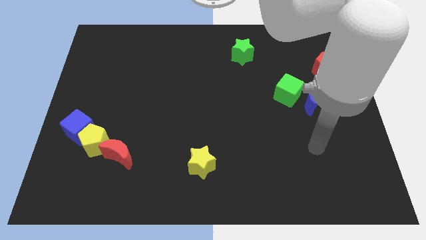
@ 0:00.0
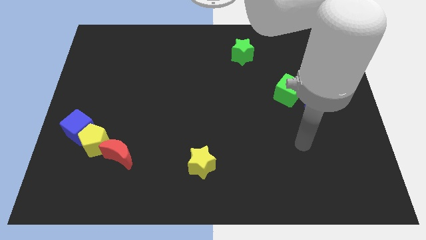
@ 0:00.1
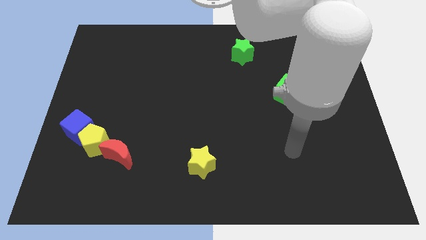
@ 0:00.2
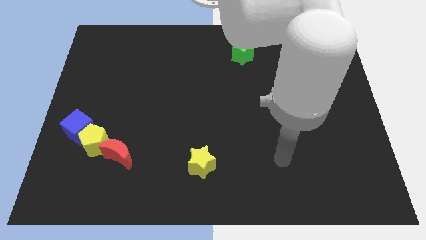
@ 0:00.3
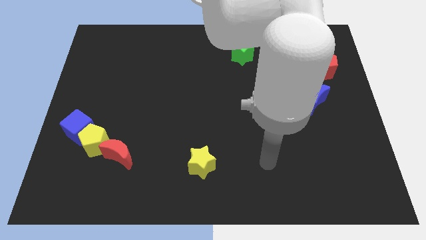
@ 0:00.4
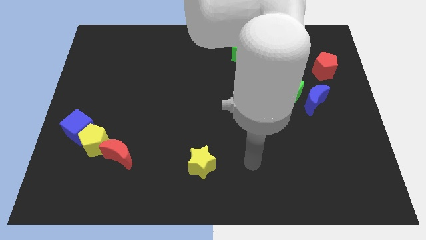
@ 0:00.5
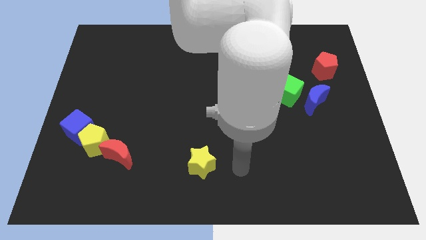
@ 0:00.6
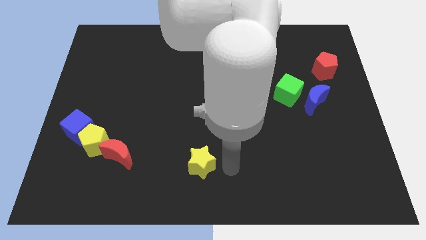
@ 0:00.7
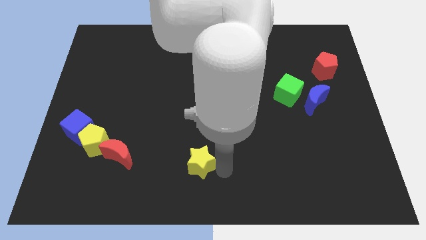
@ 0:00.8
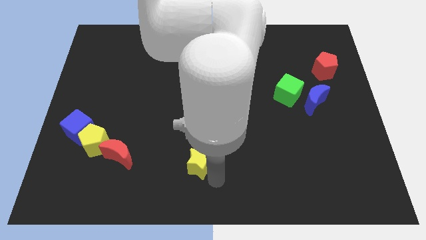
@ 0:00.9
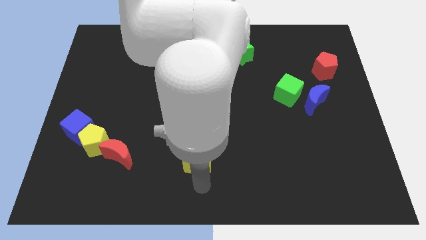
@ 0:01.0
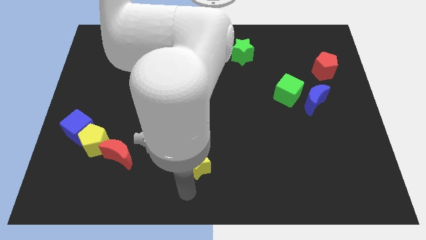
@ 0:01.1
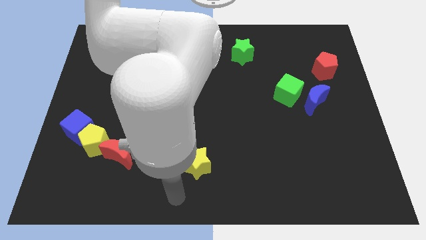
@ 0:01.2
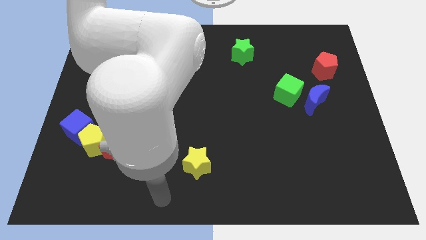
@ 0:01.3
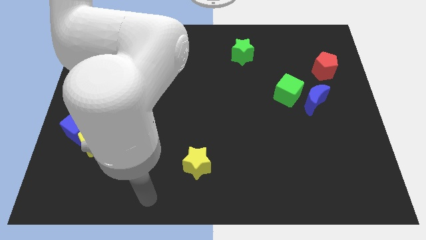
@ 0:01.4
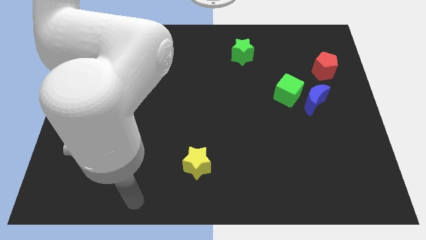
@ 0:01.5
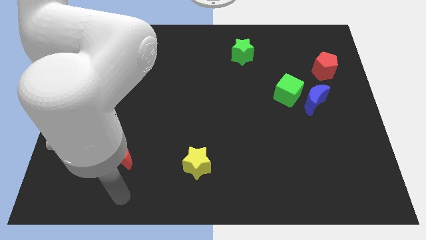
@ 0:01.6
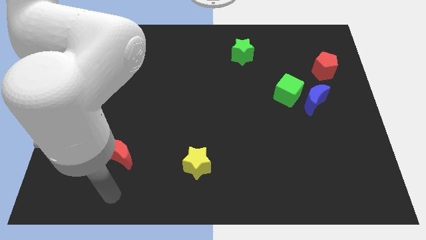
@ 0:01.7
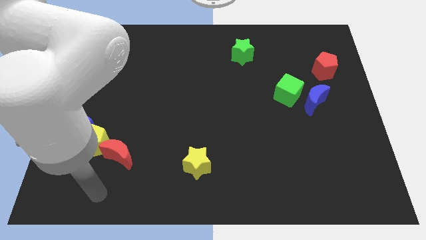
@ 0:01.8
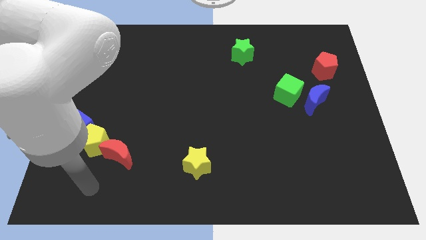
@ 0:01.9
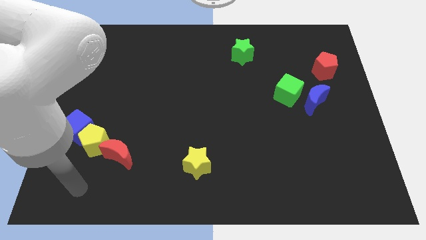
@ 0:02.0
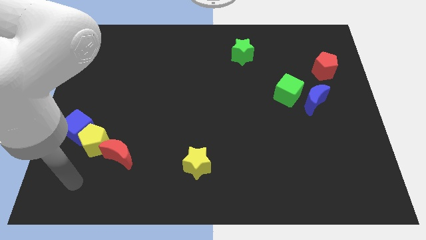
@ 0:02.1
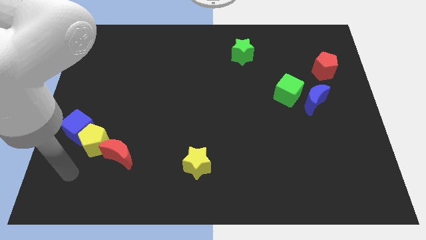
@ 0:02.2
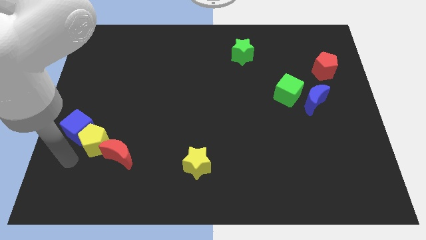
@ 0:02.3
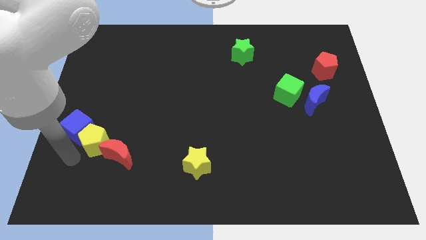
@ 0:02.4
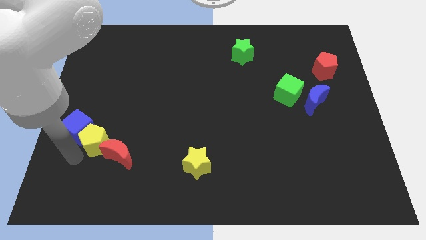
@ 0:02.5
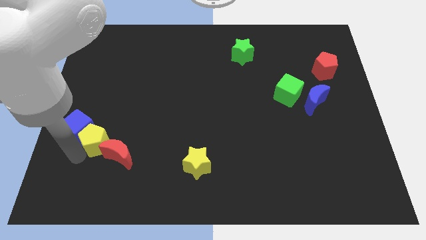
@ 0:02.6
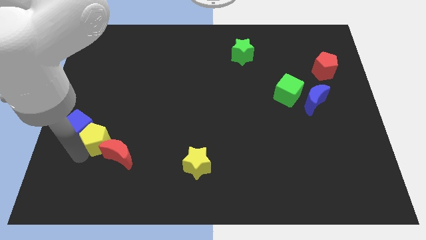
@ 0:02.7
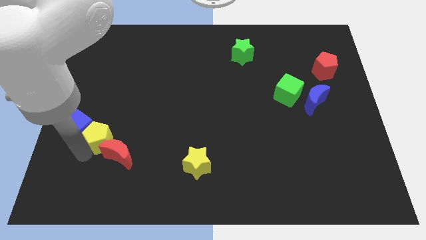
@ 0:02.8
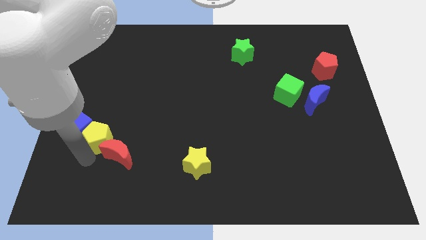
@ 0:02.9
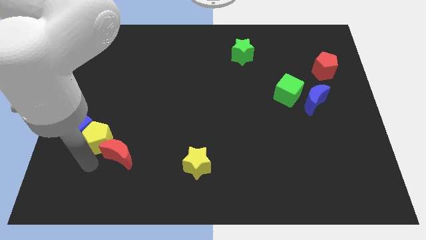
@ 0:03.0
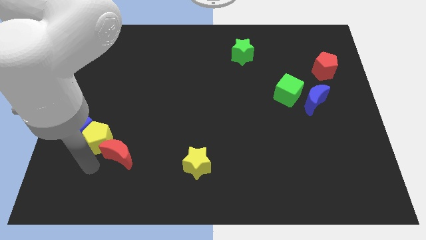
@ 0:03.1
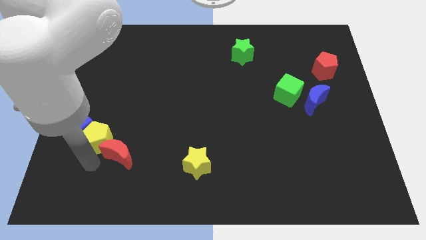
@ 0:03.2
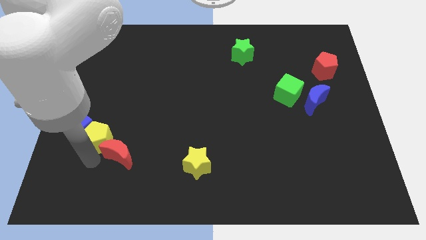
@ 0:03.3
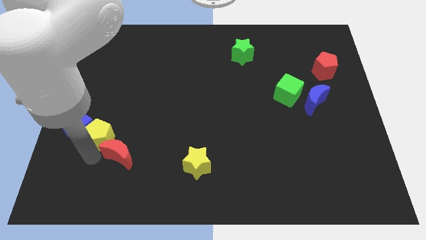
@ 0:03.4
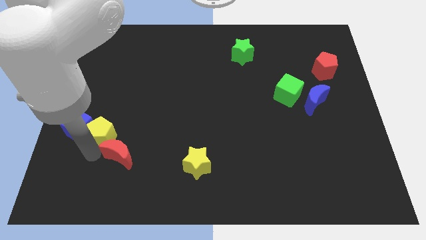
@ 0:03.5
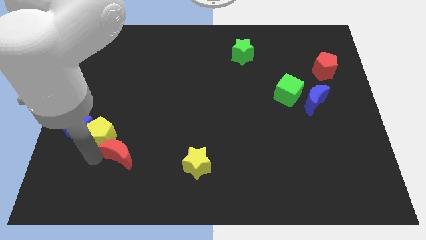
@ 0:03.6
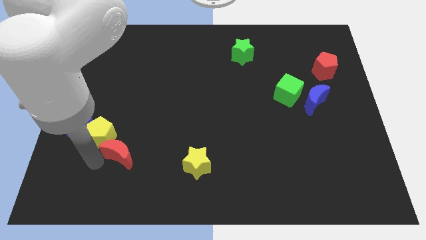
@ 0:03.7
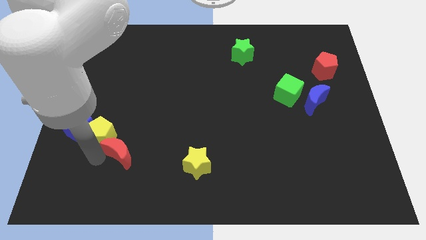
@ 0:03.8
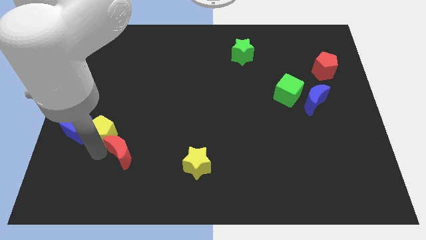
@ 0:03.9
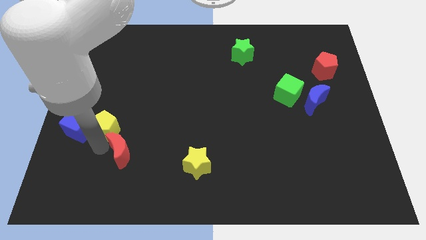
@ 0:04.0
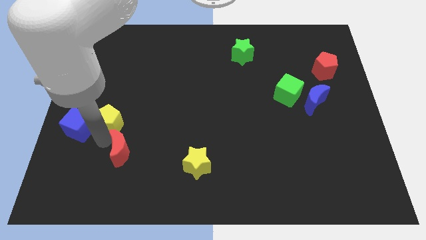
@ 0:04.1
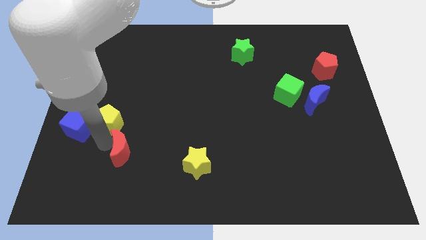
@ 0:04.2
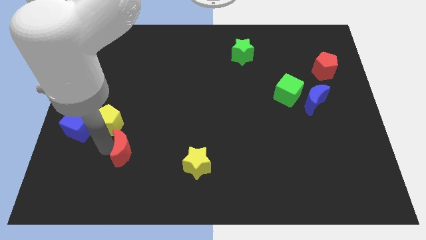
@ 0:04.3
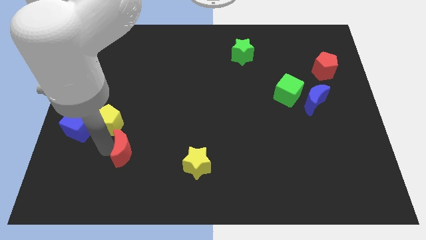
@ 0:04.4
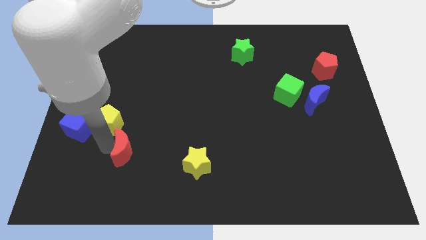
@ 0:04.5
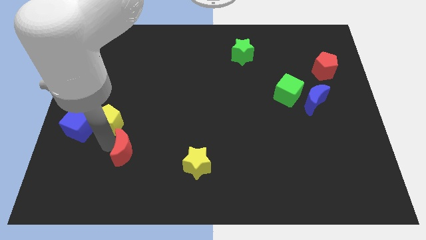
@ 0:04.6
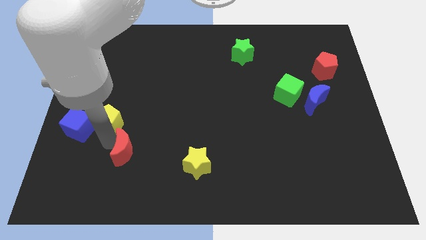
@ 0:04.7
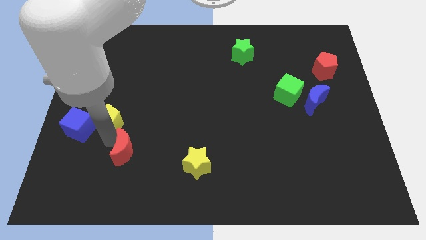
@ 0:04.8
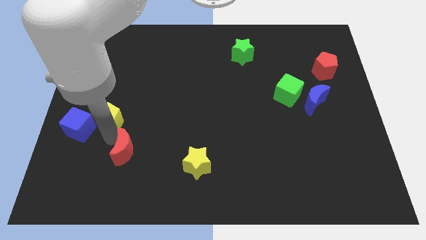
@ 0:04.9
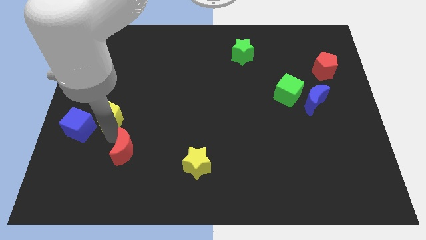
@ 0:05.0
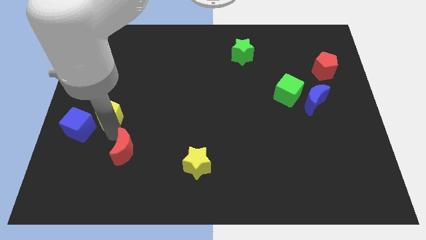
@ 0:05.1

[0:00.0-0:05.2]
push the yellow pentagon up a bit

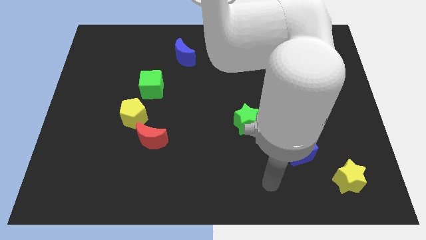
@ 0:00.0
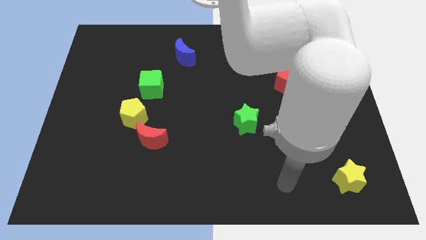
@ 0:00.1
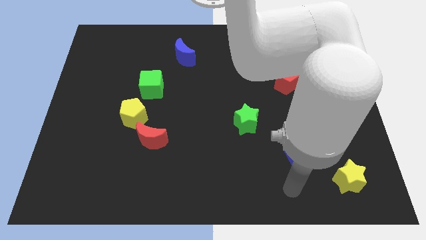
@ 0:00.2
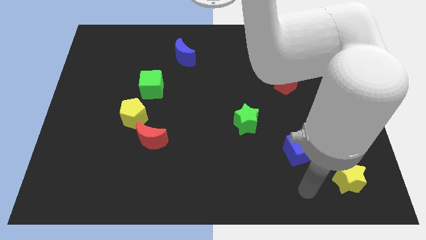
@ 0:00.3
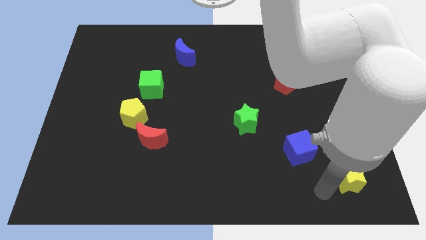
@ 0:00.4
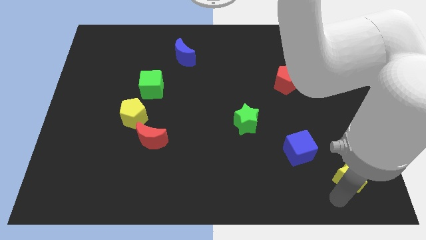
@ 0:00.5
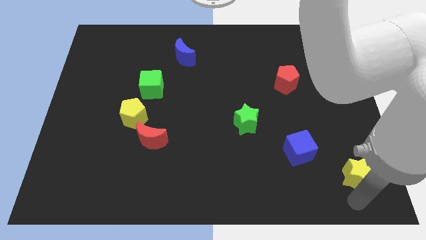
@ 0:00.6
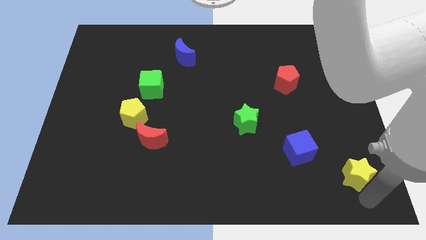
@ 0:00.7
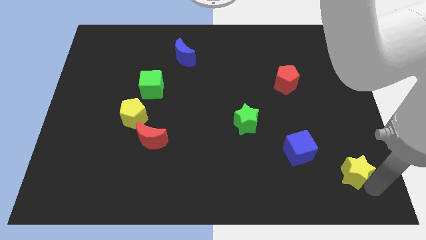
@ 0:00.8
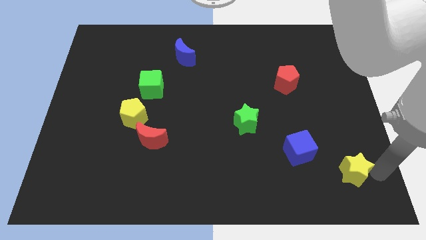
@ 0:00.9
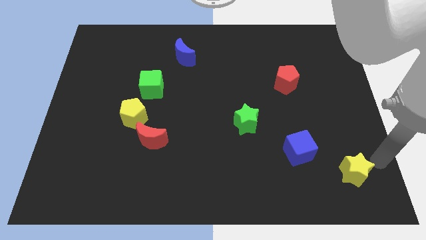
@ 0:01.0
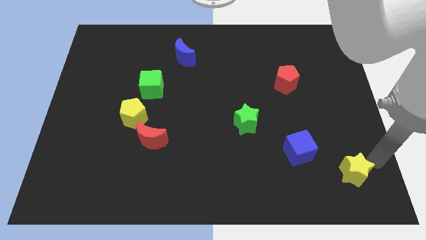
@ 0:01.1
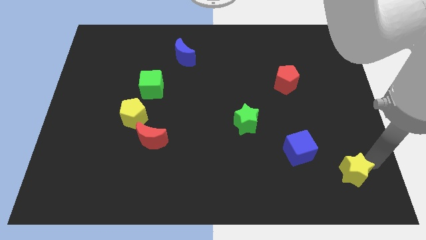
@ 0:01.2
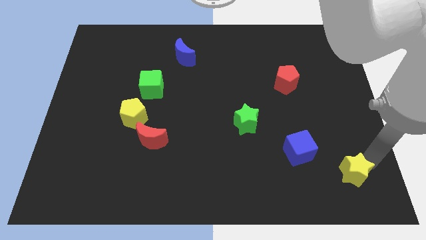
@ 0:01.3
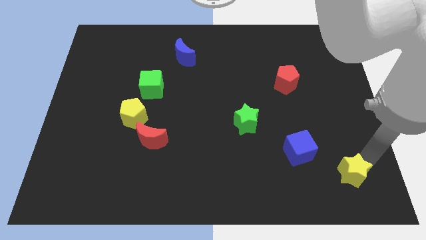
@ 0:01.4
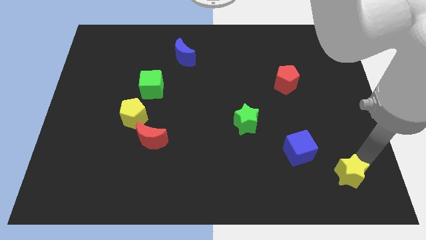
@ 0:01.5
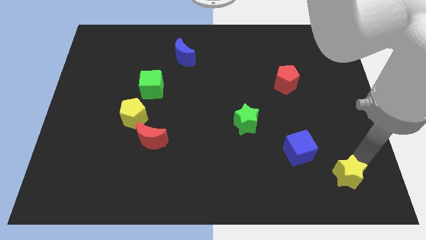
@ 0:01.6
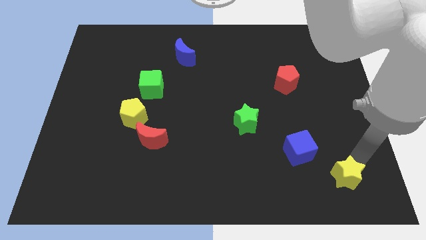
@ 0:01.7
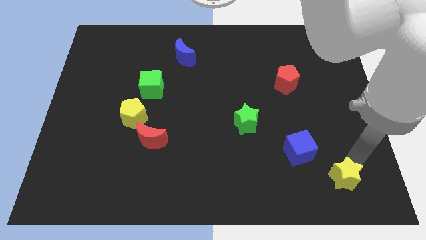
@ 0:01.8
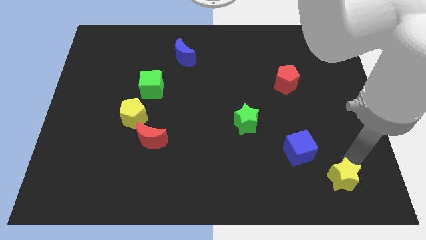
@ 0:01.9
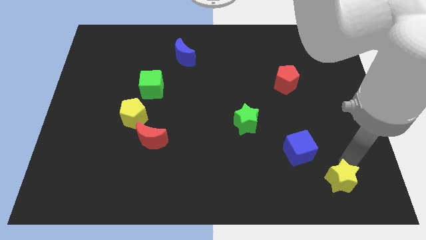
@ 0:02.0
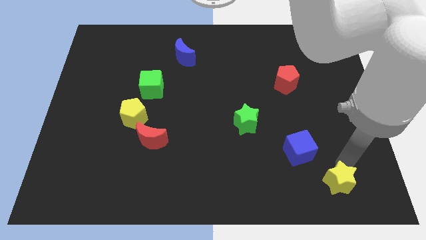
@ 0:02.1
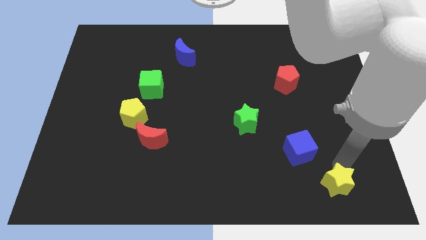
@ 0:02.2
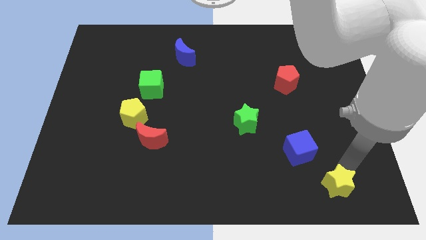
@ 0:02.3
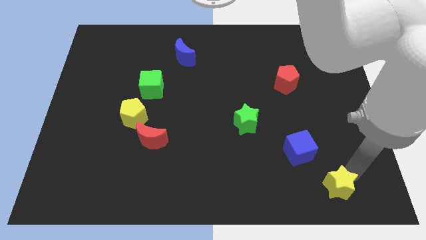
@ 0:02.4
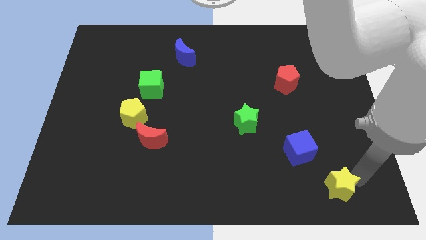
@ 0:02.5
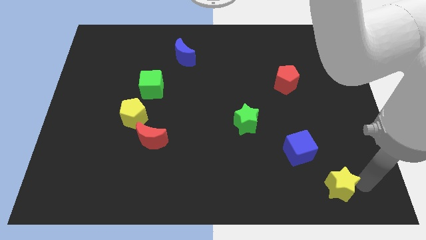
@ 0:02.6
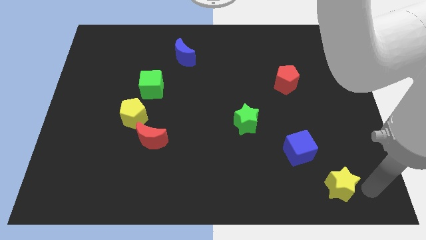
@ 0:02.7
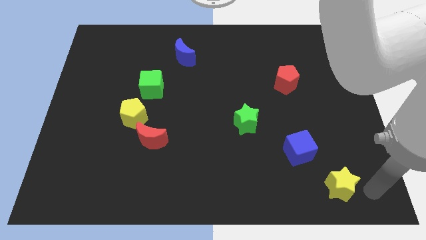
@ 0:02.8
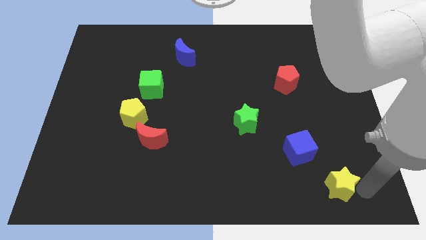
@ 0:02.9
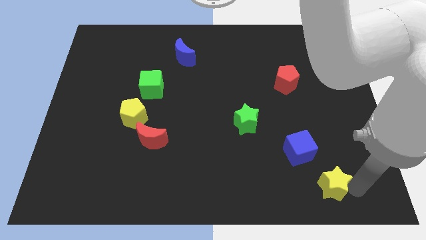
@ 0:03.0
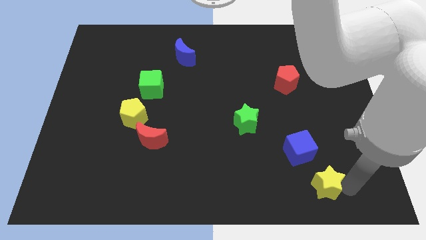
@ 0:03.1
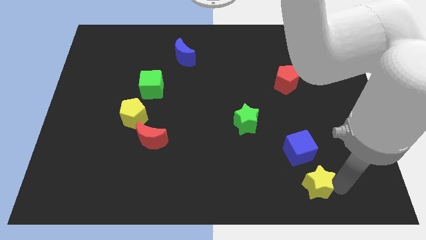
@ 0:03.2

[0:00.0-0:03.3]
slightly move the yellow star left
